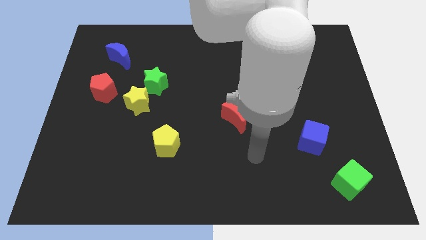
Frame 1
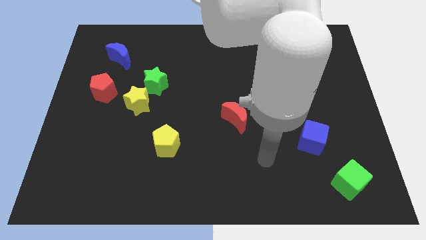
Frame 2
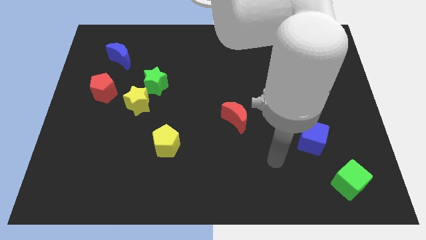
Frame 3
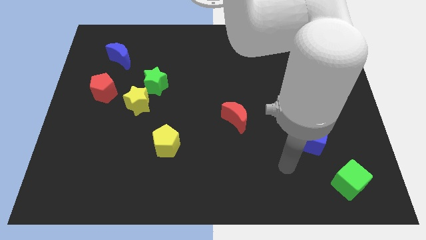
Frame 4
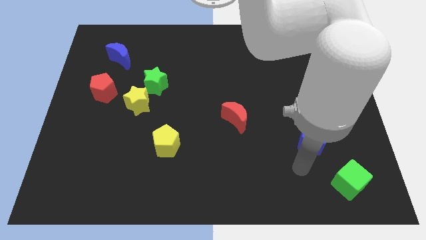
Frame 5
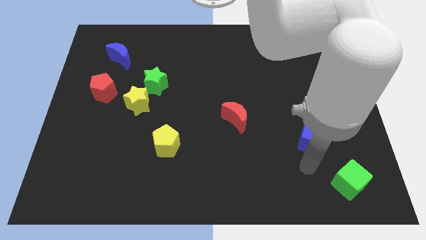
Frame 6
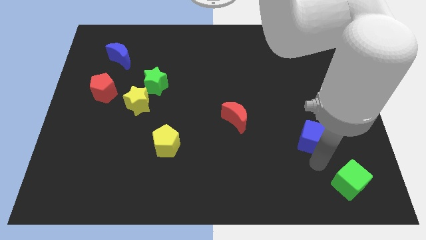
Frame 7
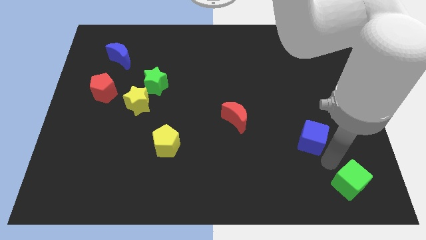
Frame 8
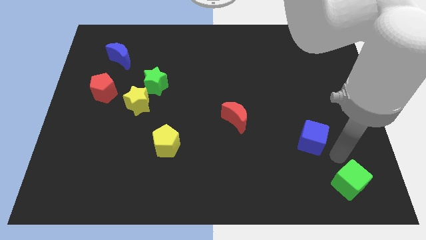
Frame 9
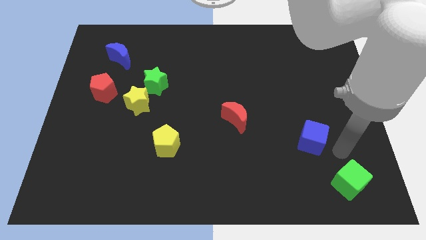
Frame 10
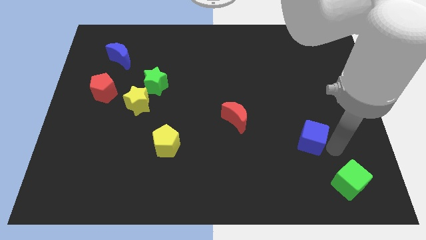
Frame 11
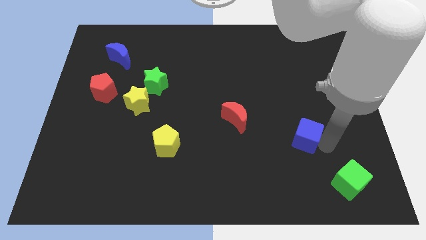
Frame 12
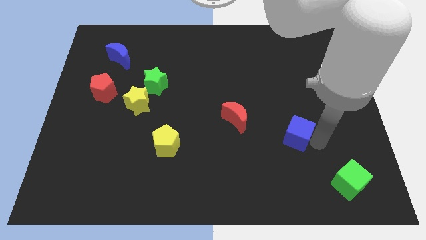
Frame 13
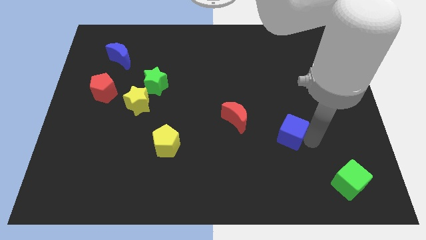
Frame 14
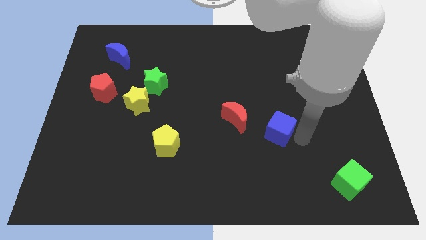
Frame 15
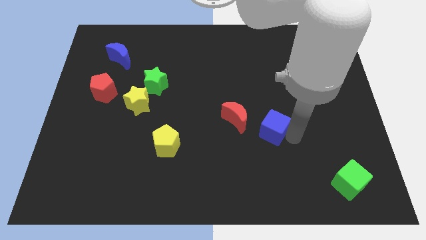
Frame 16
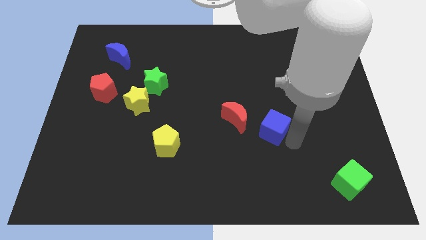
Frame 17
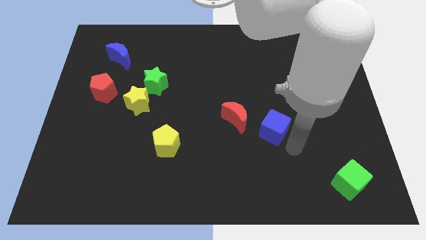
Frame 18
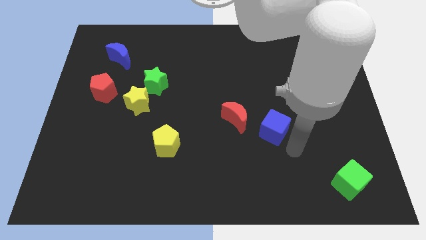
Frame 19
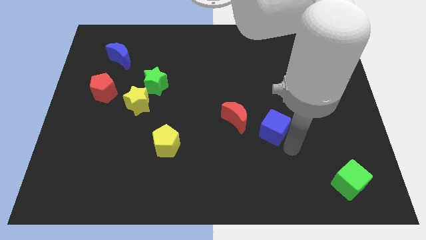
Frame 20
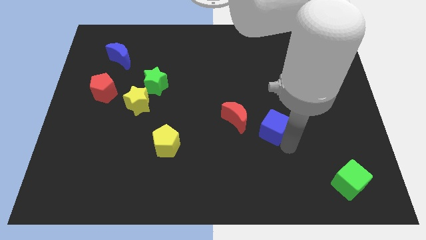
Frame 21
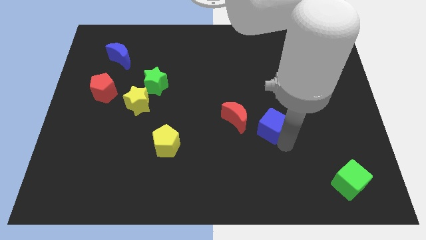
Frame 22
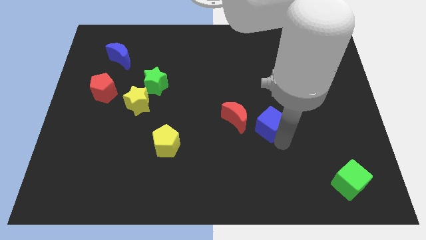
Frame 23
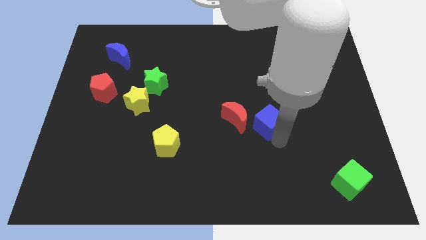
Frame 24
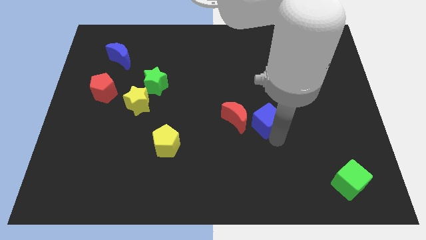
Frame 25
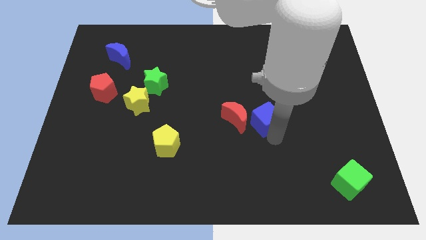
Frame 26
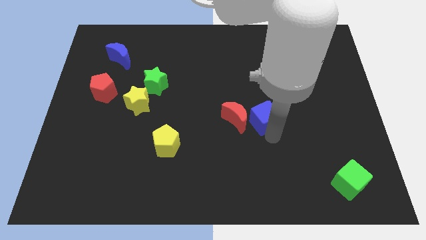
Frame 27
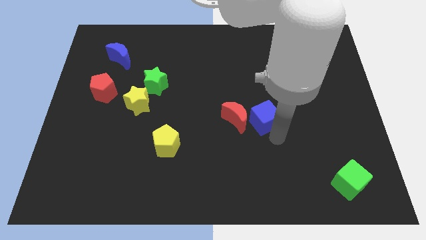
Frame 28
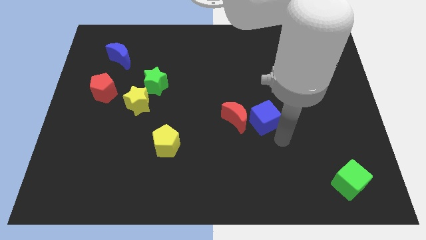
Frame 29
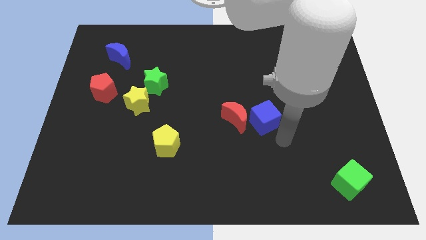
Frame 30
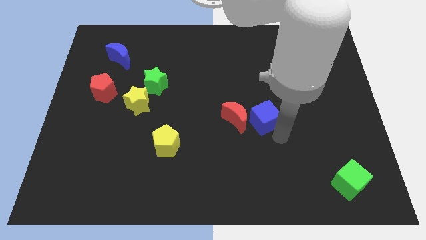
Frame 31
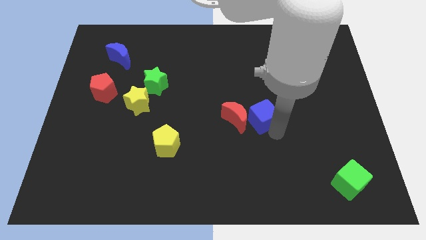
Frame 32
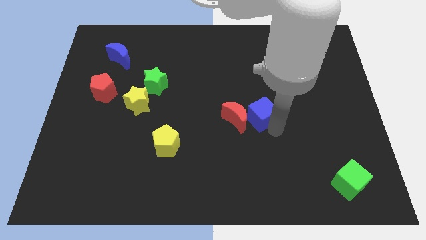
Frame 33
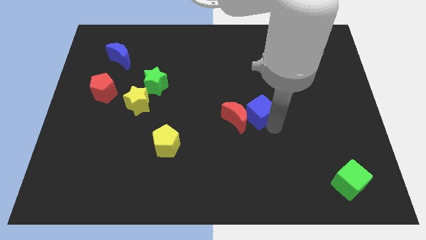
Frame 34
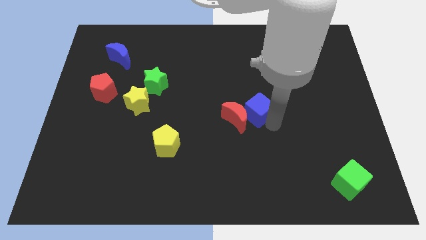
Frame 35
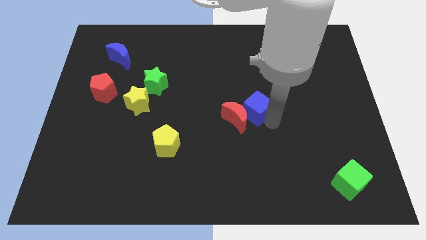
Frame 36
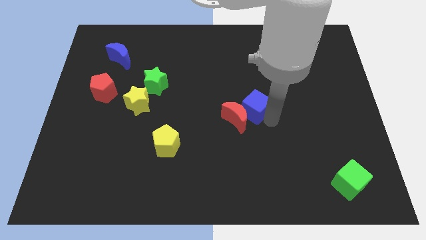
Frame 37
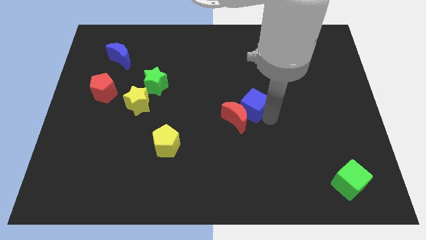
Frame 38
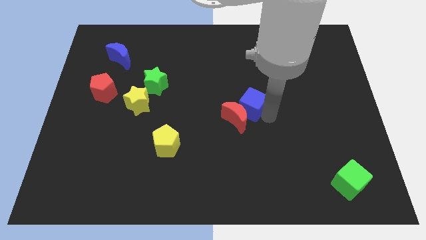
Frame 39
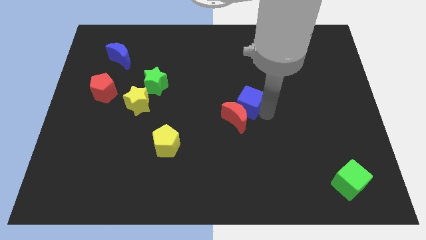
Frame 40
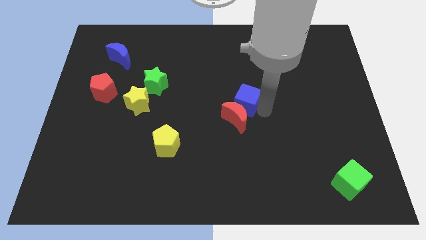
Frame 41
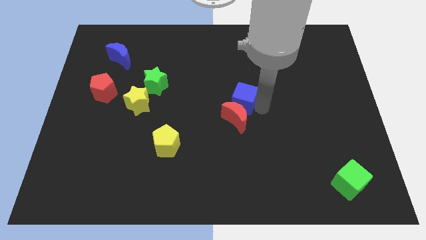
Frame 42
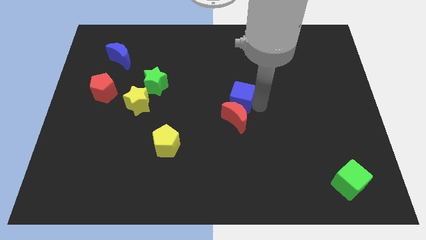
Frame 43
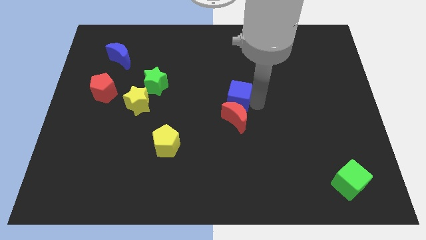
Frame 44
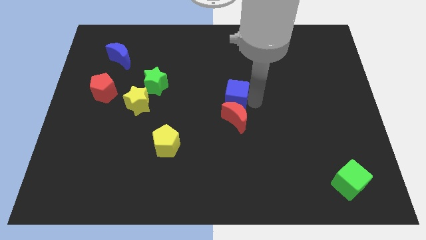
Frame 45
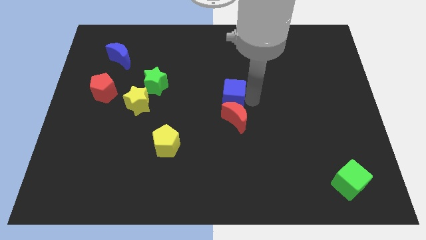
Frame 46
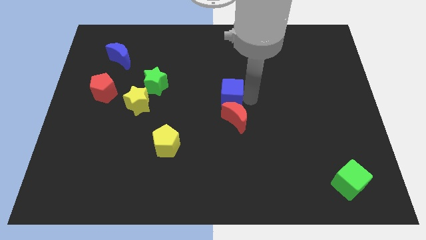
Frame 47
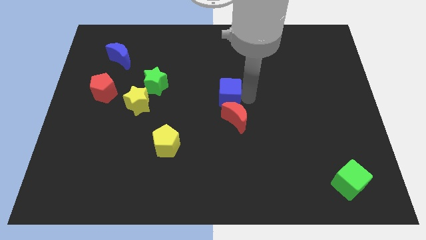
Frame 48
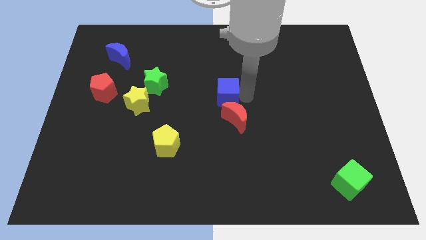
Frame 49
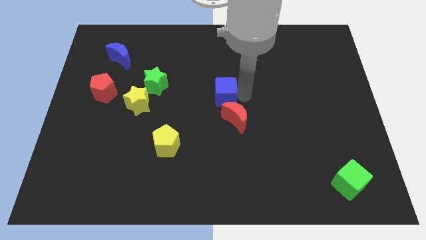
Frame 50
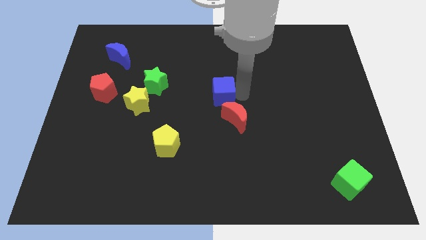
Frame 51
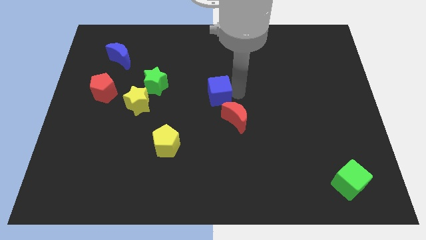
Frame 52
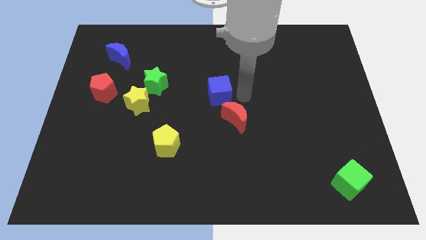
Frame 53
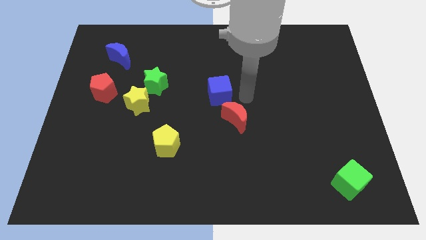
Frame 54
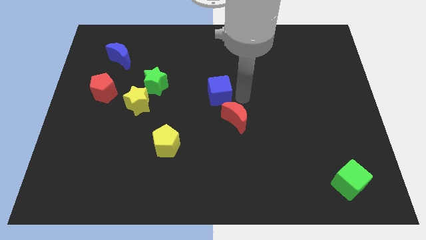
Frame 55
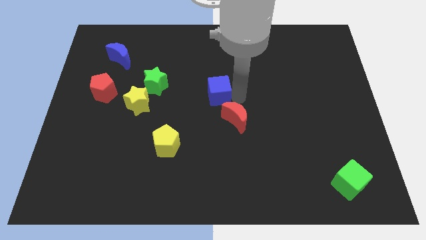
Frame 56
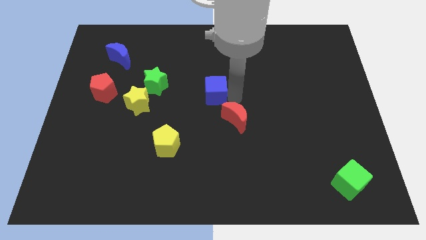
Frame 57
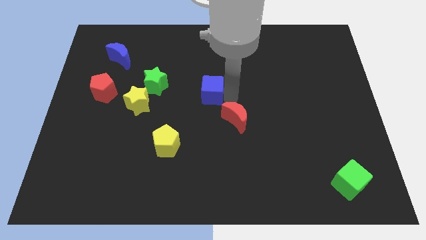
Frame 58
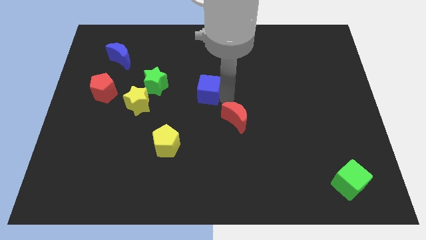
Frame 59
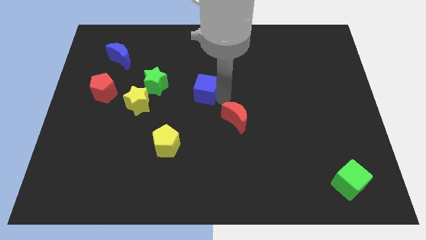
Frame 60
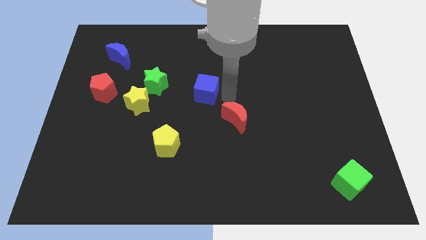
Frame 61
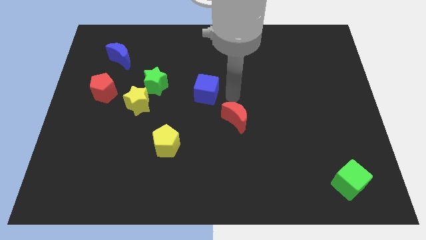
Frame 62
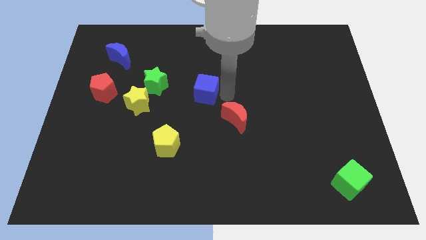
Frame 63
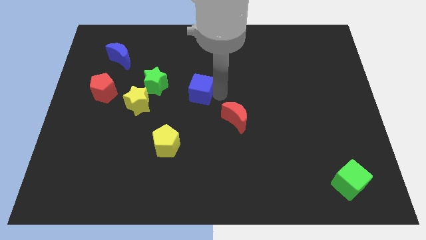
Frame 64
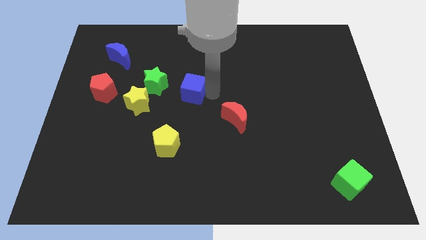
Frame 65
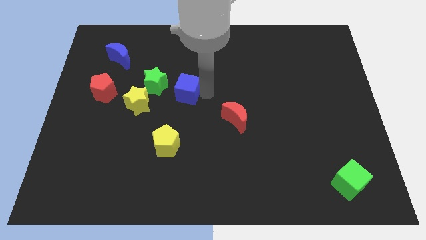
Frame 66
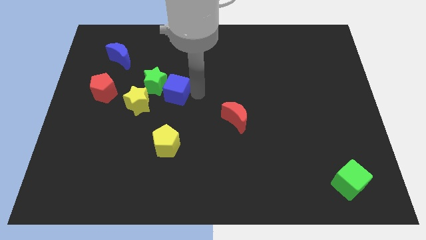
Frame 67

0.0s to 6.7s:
push the blue cube to the green star
